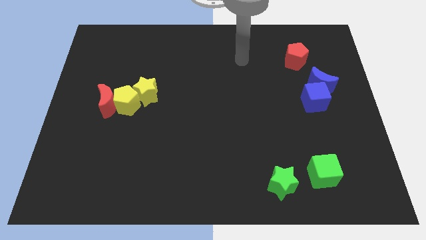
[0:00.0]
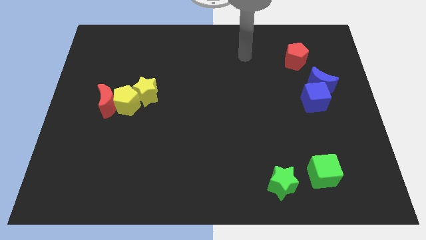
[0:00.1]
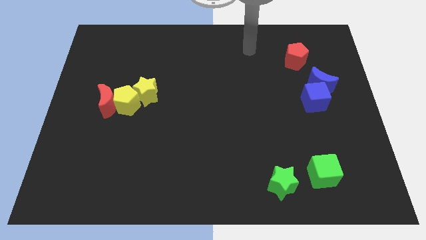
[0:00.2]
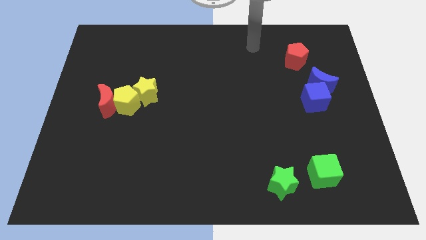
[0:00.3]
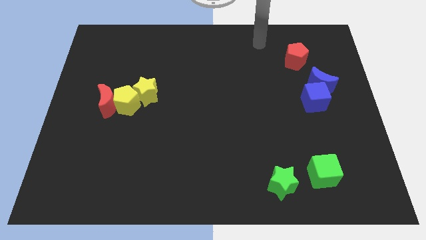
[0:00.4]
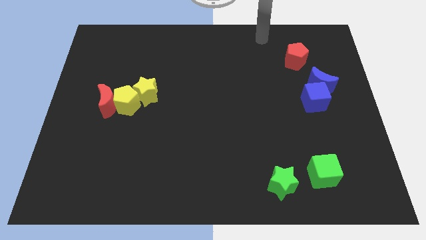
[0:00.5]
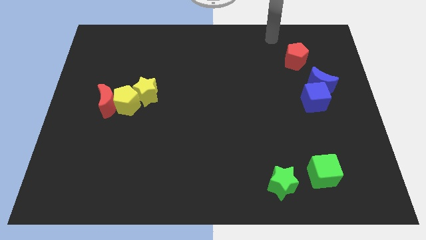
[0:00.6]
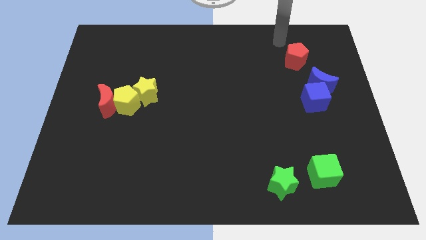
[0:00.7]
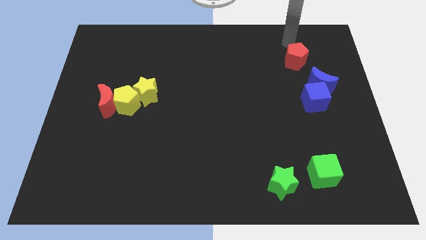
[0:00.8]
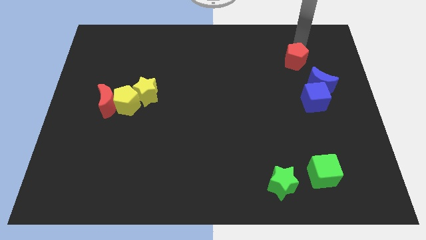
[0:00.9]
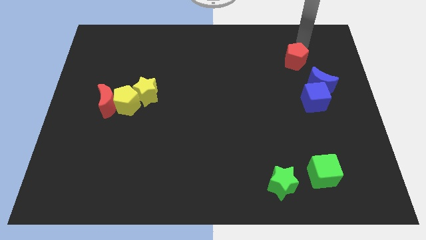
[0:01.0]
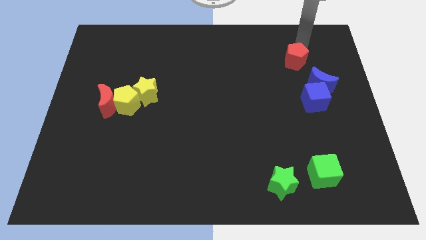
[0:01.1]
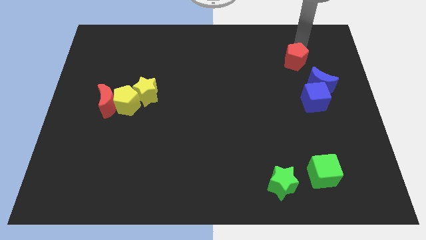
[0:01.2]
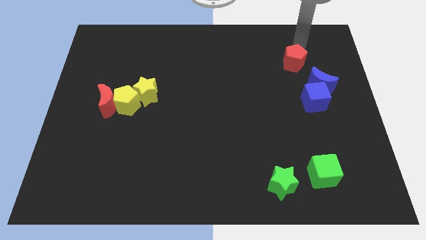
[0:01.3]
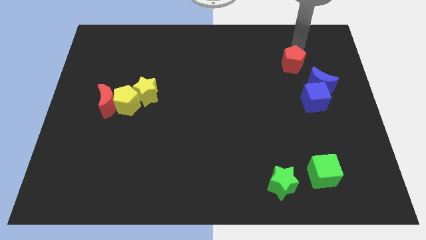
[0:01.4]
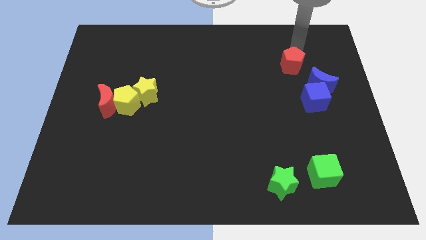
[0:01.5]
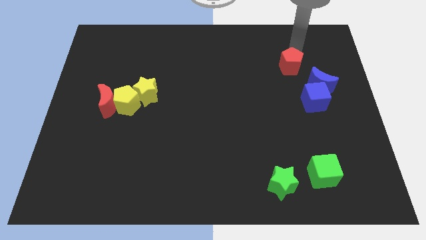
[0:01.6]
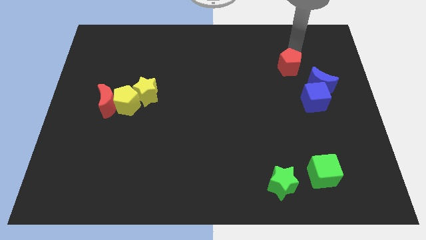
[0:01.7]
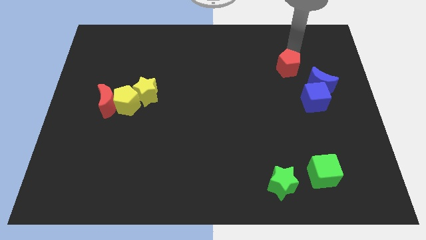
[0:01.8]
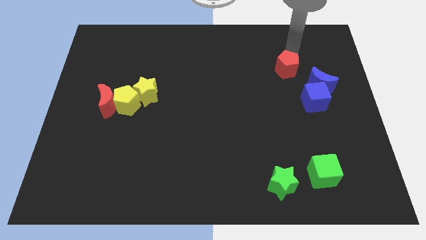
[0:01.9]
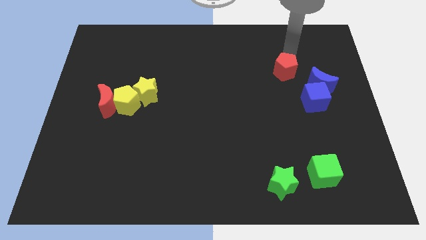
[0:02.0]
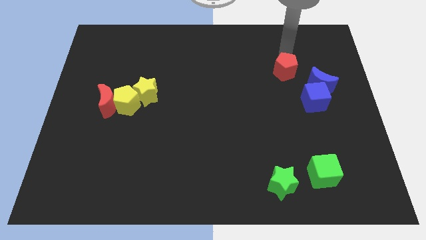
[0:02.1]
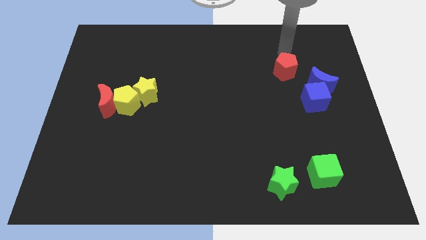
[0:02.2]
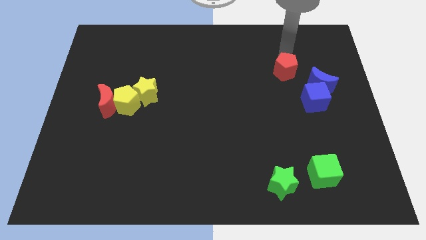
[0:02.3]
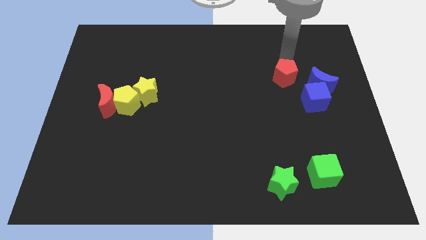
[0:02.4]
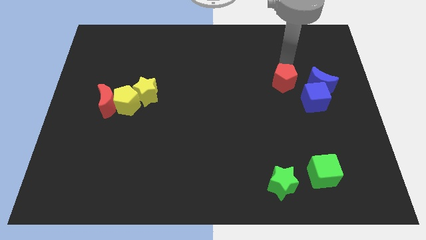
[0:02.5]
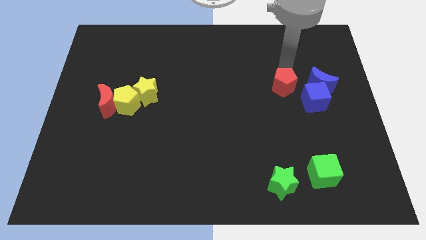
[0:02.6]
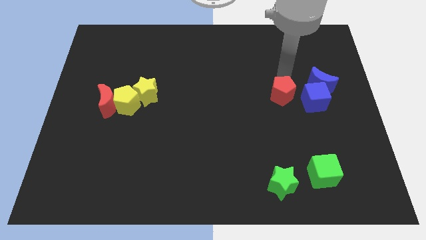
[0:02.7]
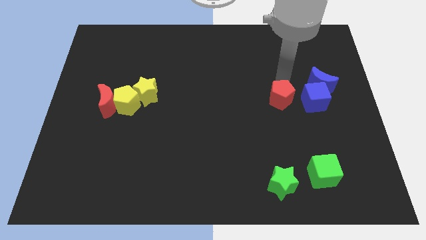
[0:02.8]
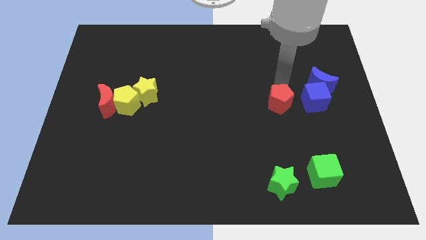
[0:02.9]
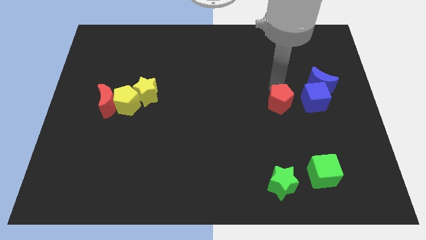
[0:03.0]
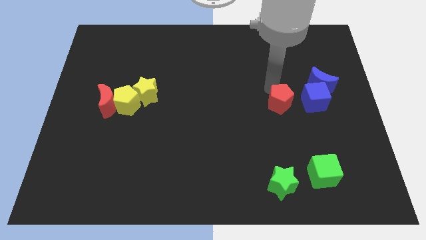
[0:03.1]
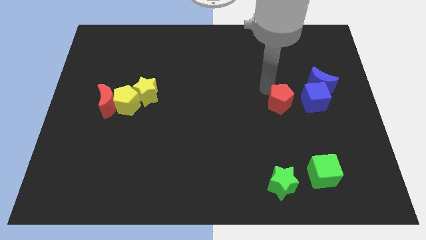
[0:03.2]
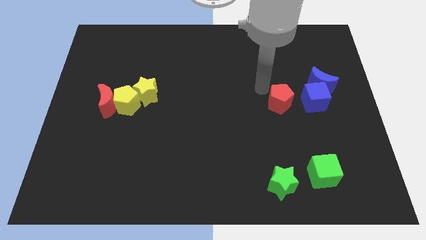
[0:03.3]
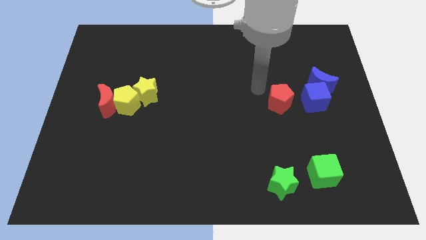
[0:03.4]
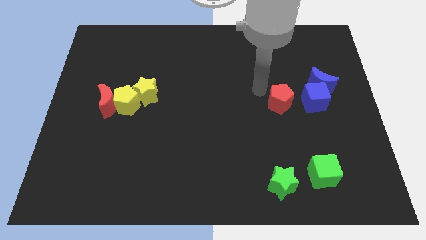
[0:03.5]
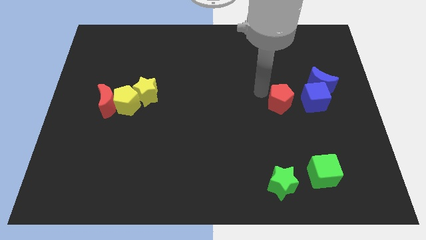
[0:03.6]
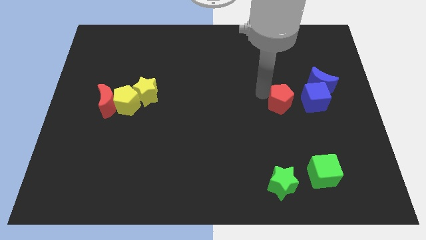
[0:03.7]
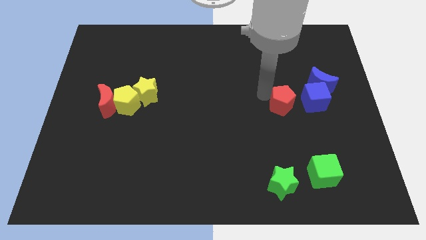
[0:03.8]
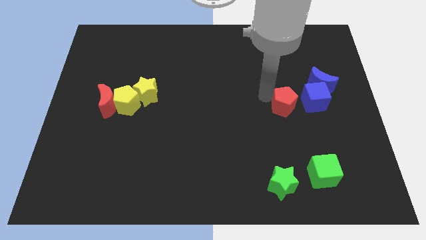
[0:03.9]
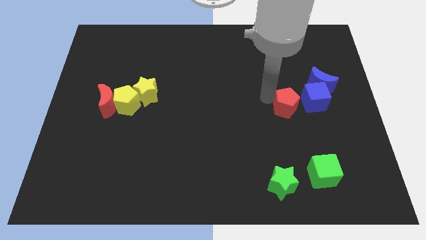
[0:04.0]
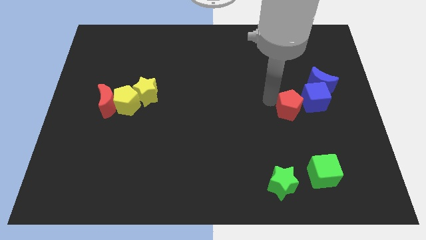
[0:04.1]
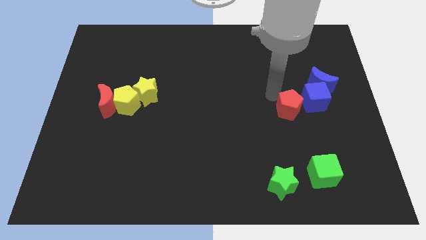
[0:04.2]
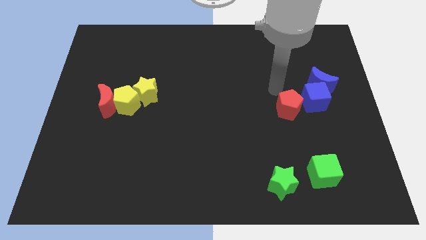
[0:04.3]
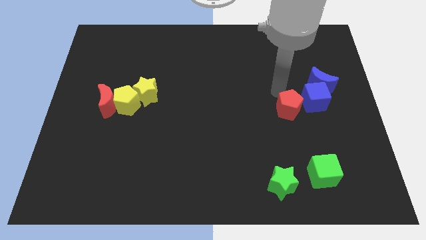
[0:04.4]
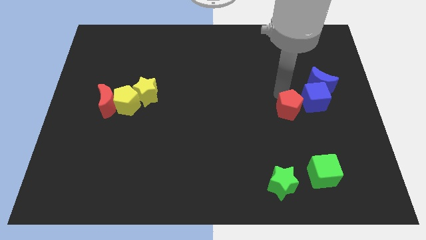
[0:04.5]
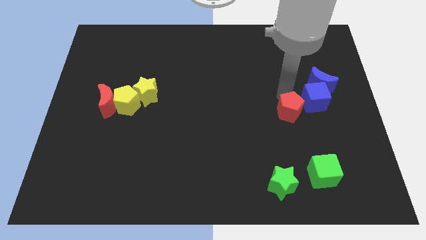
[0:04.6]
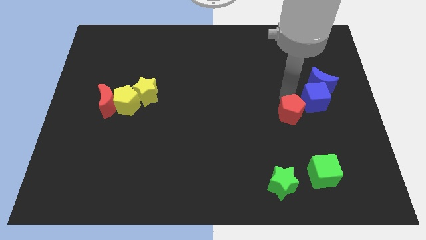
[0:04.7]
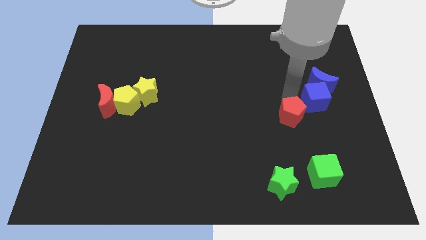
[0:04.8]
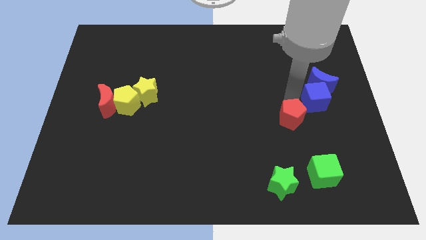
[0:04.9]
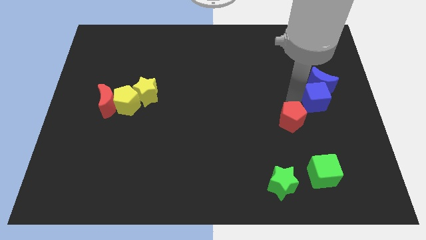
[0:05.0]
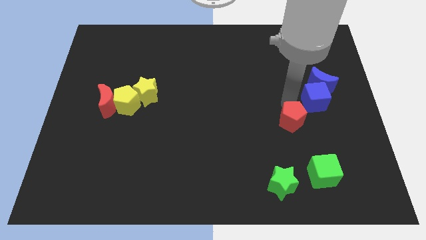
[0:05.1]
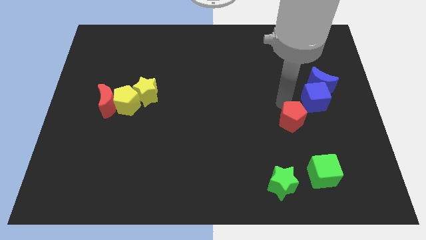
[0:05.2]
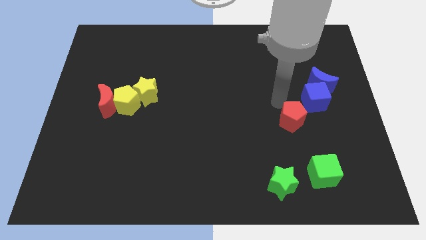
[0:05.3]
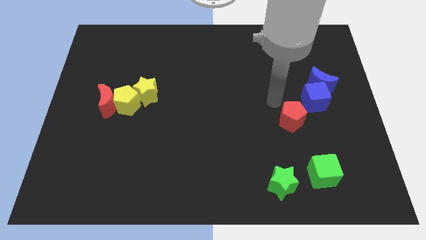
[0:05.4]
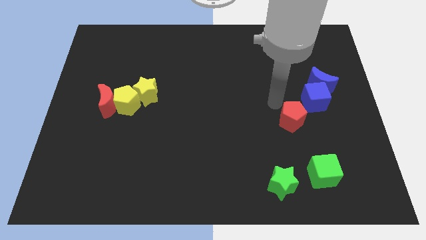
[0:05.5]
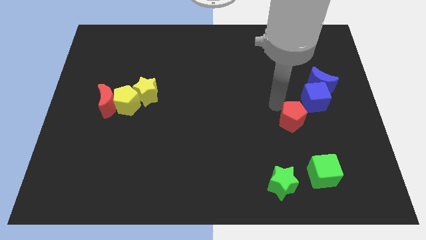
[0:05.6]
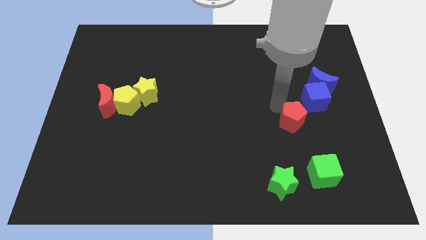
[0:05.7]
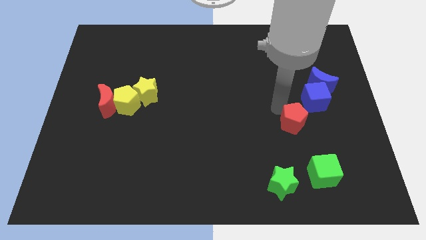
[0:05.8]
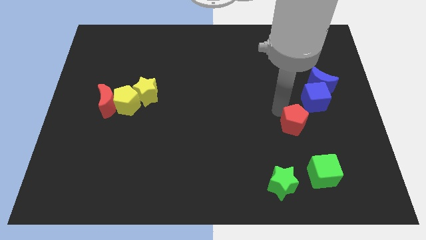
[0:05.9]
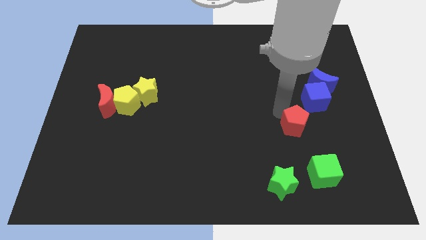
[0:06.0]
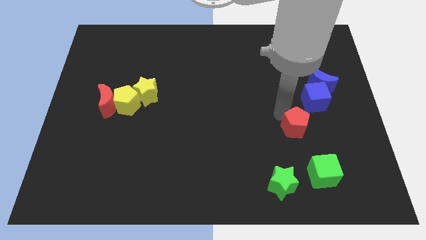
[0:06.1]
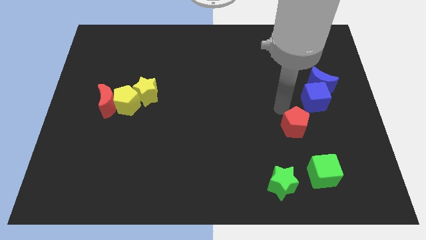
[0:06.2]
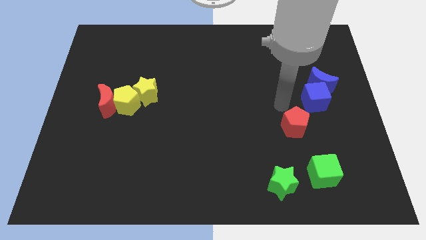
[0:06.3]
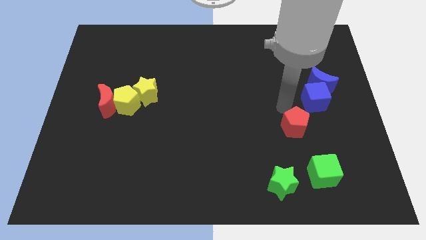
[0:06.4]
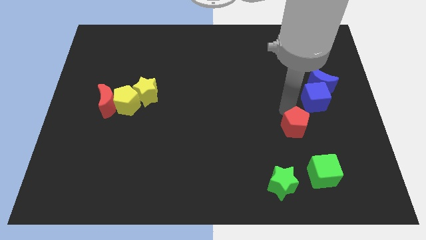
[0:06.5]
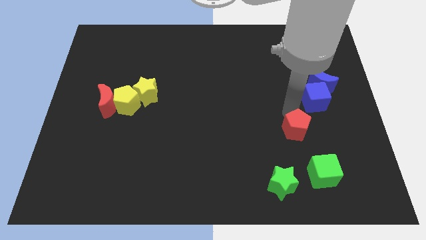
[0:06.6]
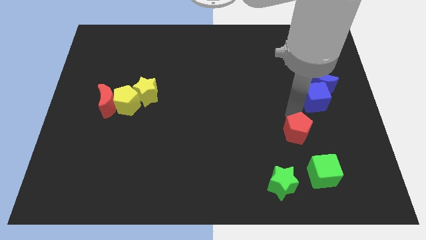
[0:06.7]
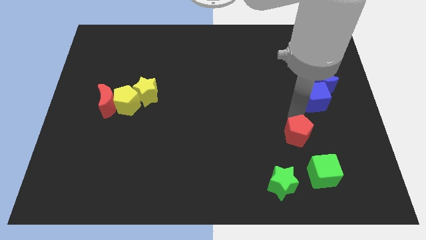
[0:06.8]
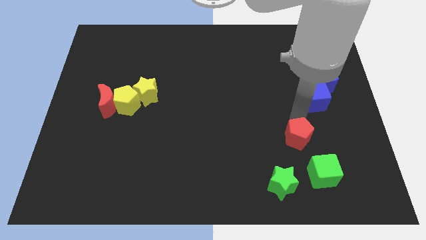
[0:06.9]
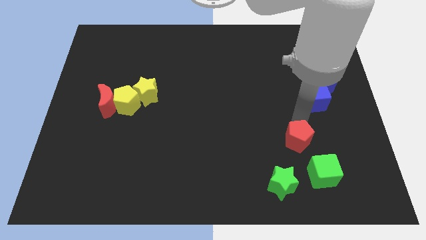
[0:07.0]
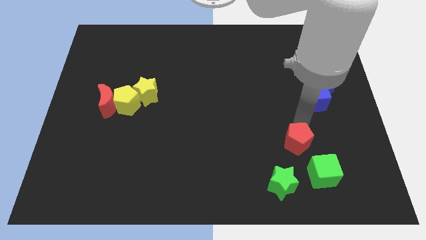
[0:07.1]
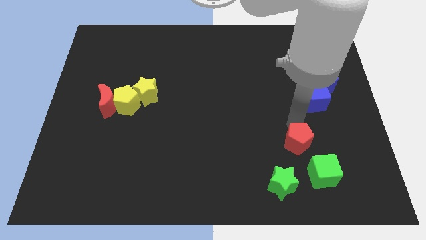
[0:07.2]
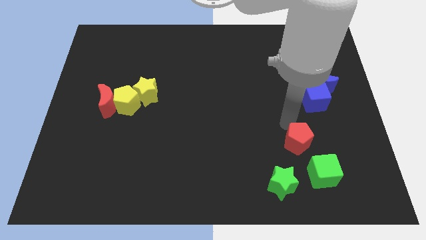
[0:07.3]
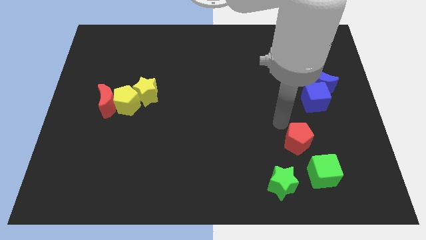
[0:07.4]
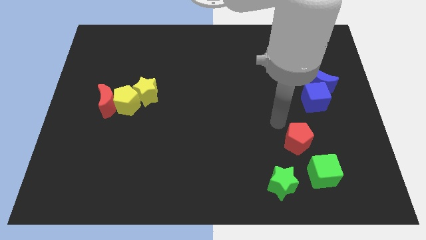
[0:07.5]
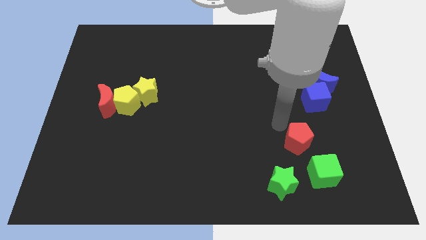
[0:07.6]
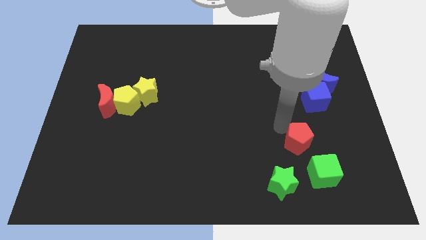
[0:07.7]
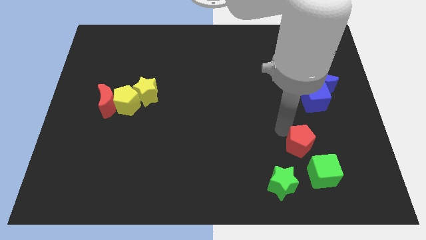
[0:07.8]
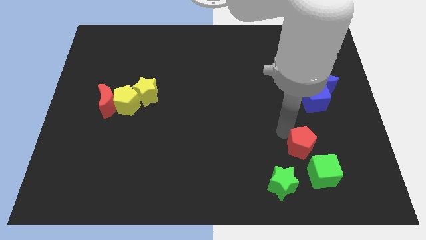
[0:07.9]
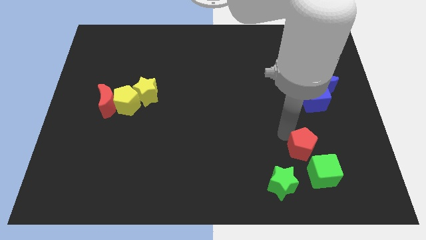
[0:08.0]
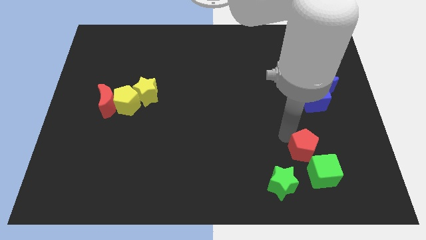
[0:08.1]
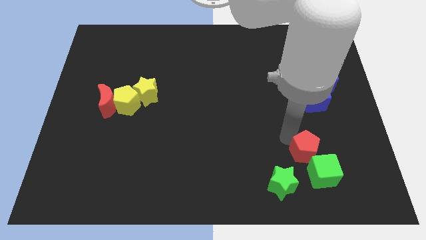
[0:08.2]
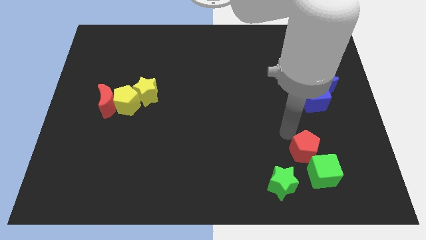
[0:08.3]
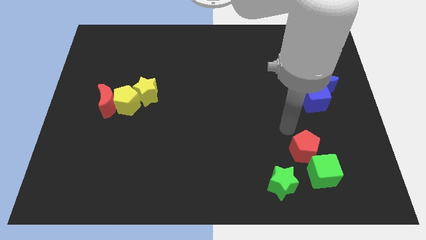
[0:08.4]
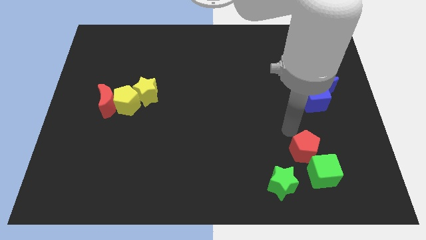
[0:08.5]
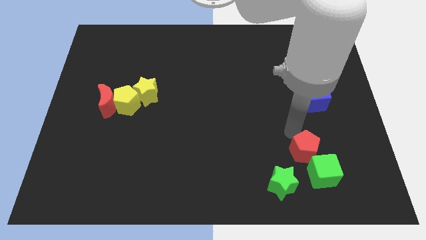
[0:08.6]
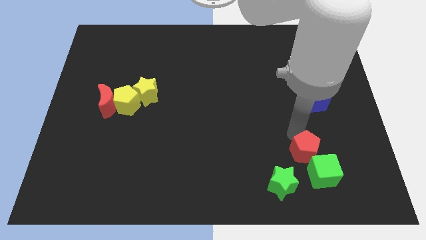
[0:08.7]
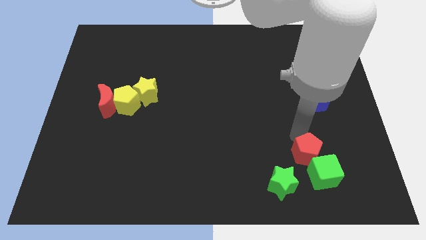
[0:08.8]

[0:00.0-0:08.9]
put the red pentagon next to the green cube
